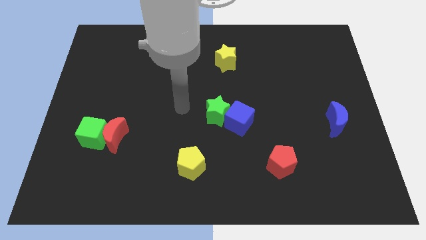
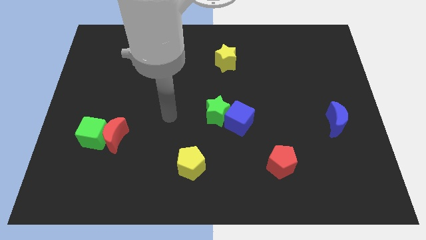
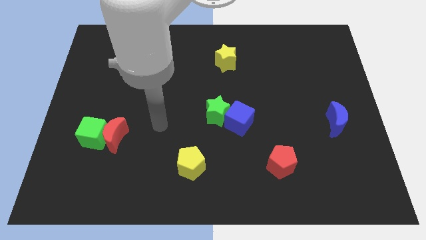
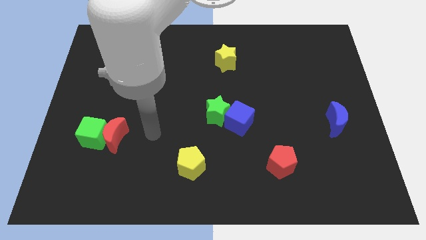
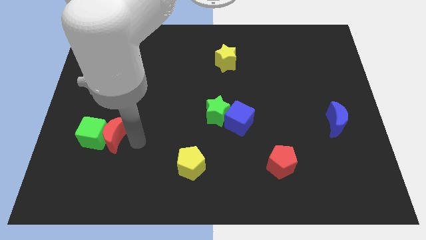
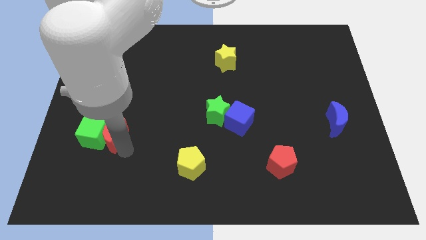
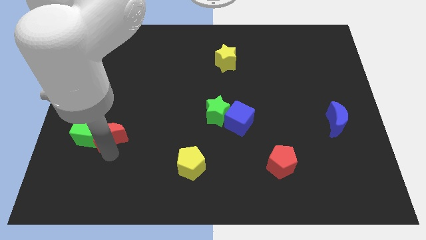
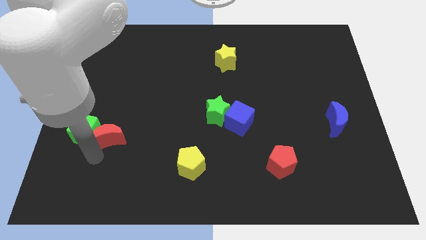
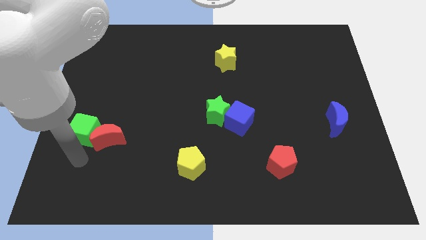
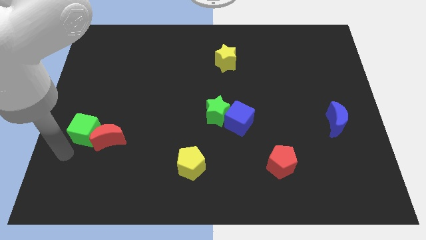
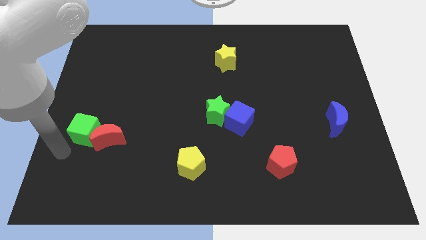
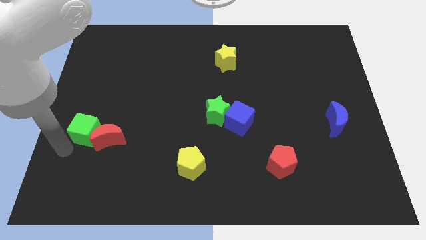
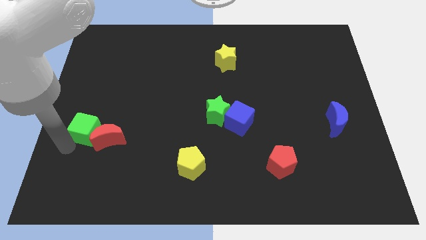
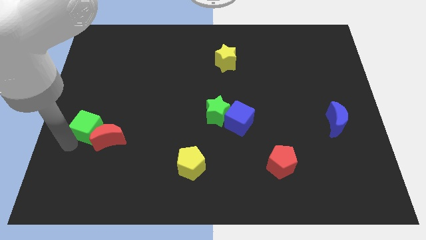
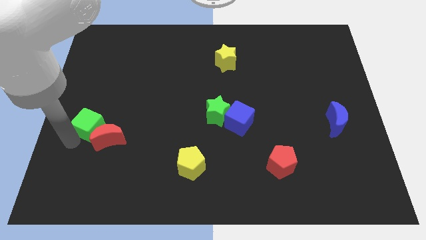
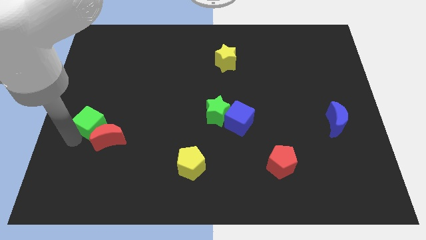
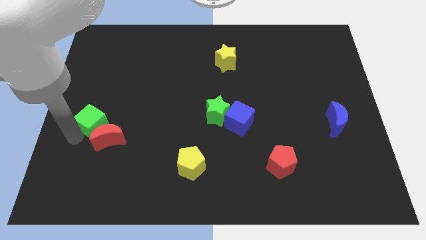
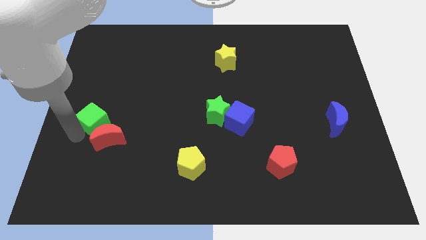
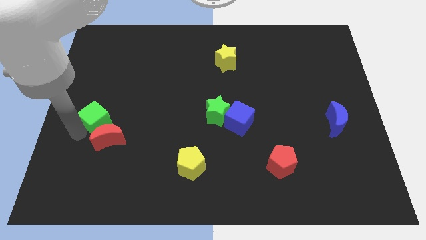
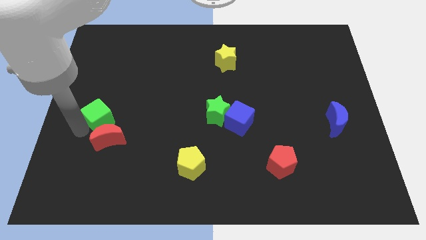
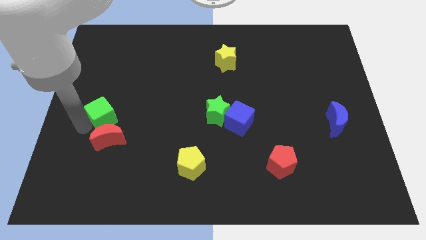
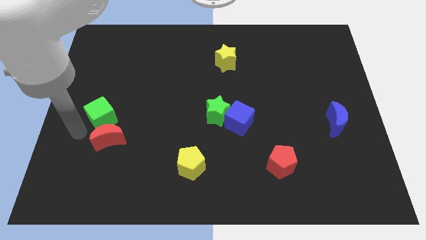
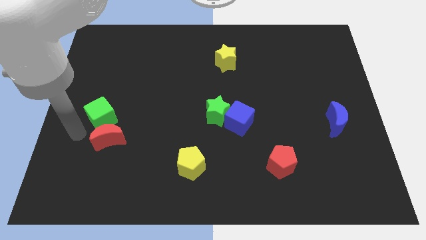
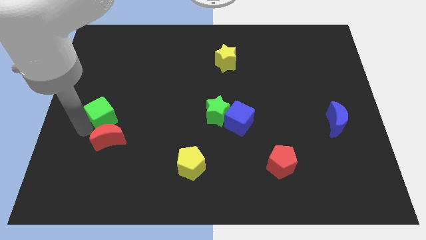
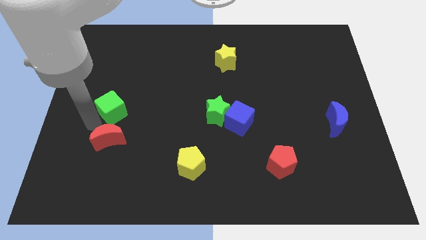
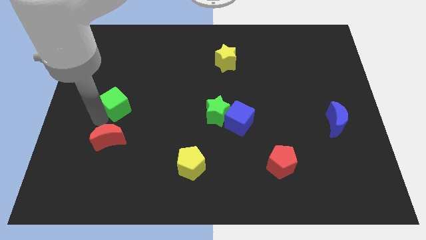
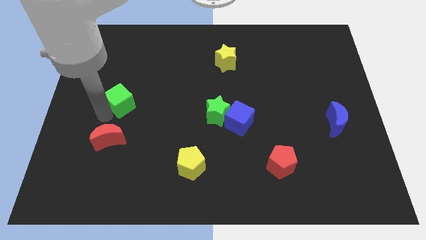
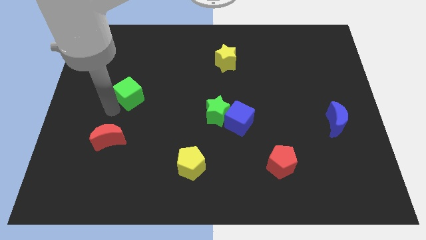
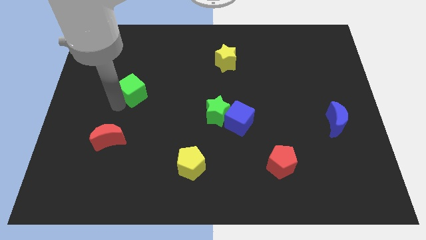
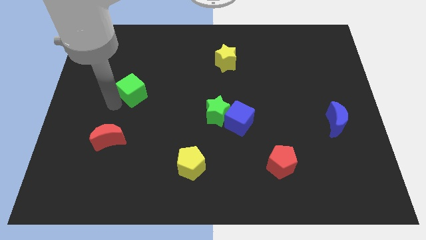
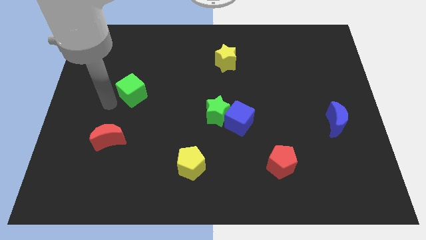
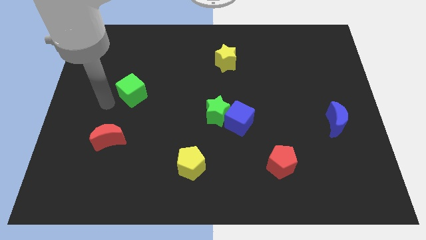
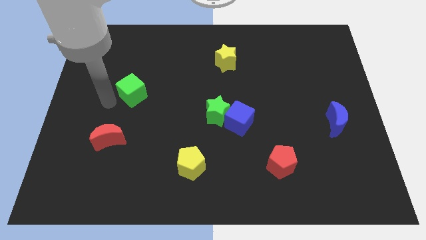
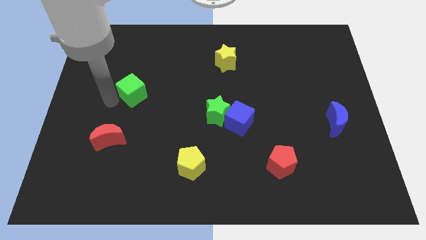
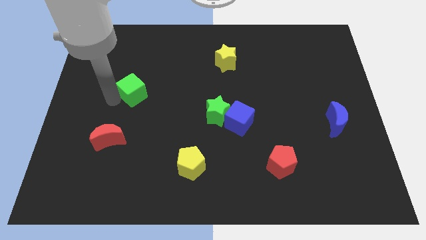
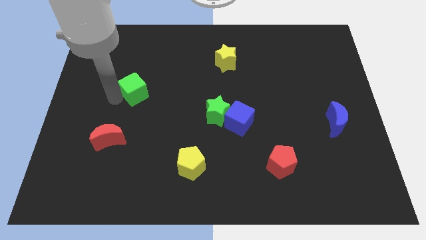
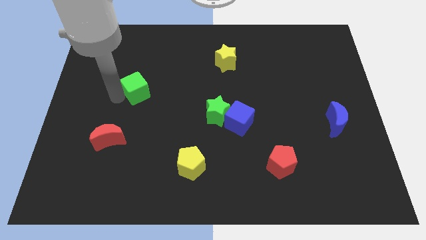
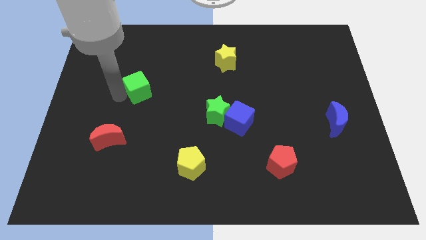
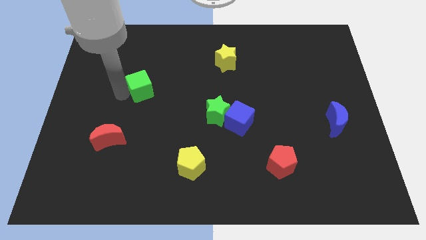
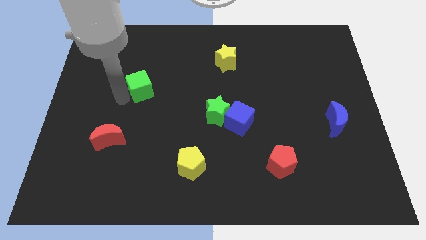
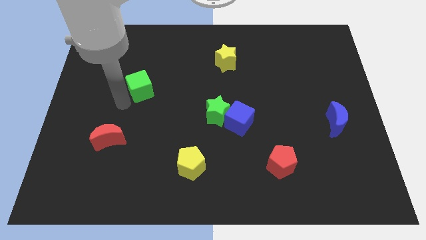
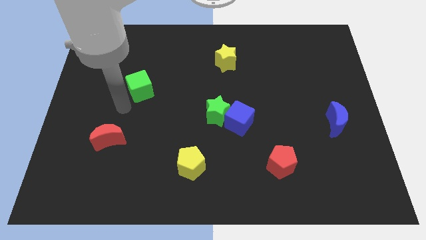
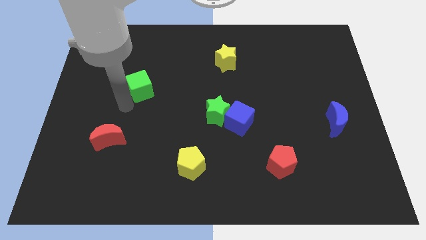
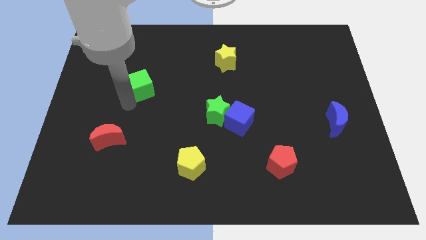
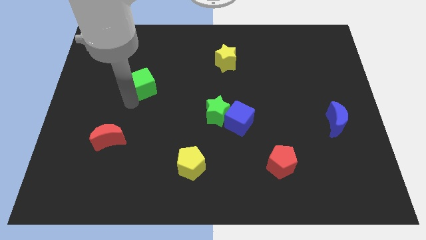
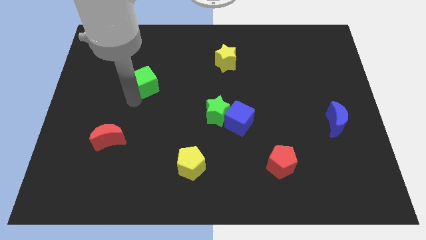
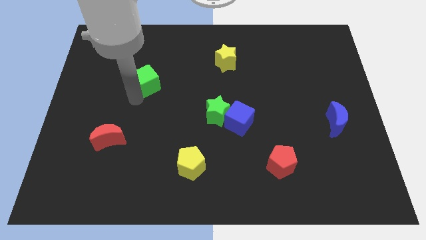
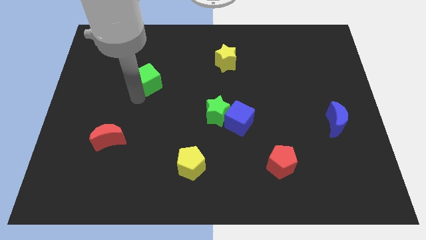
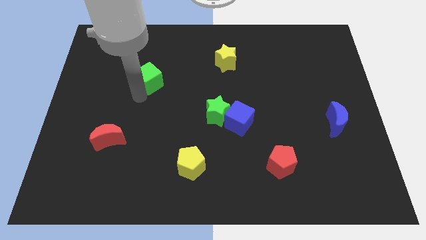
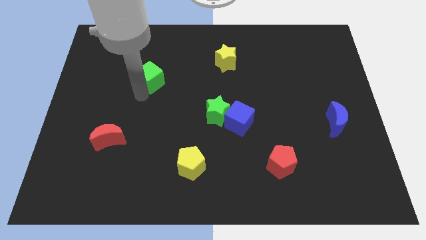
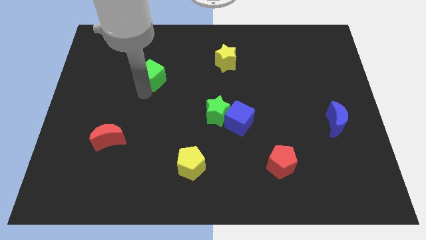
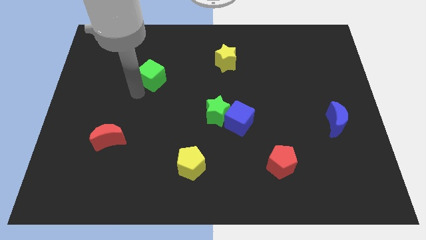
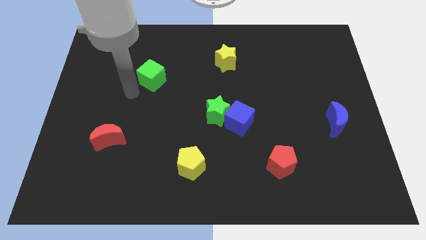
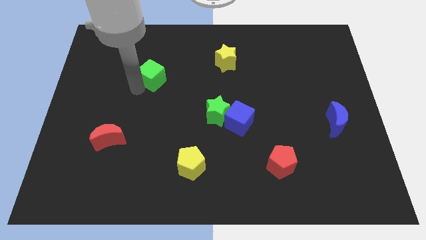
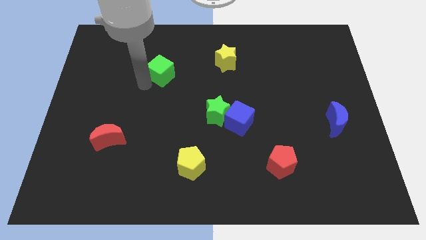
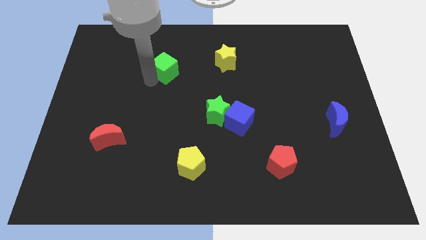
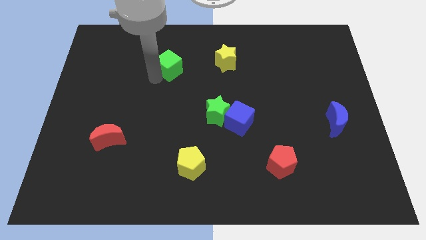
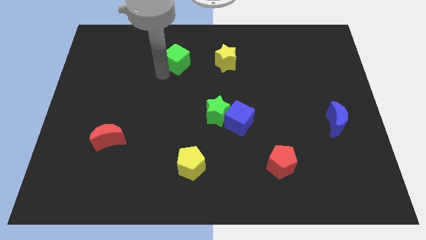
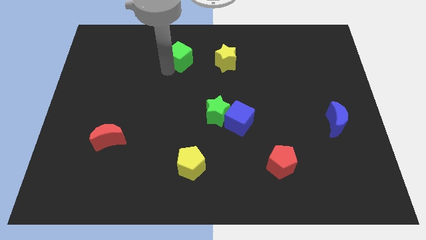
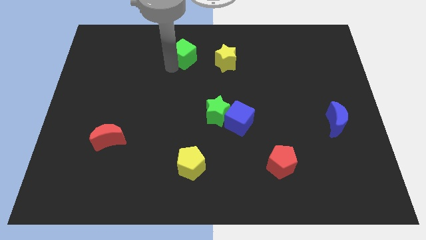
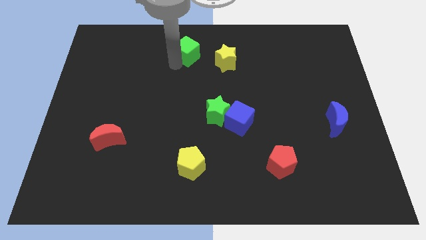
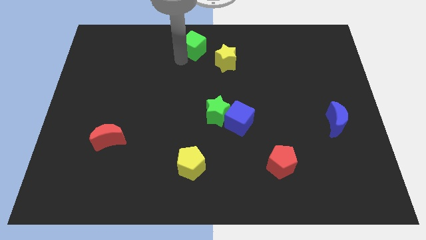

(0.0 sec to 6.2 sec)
put the green cube to the top
